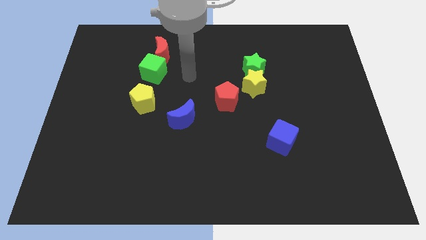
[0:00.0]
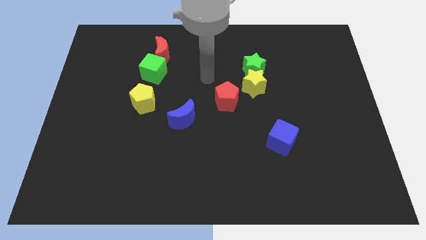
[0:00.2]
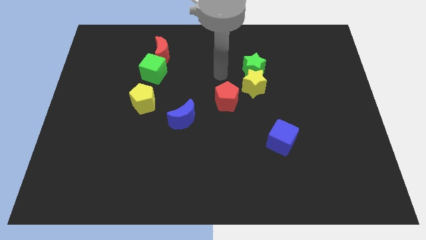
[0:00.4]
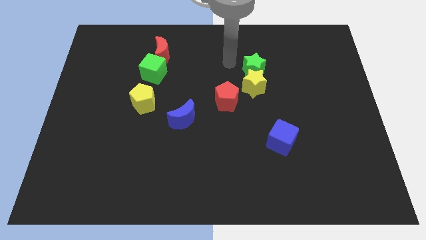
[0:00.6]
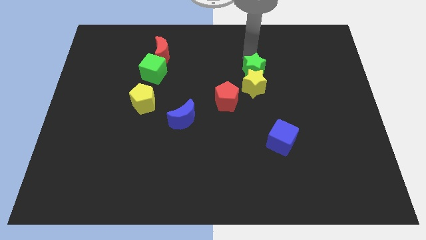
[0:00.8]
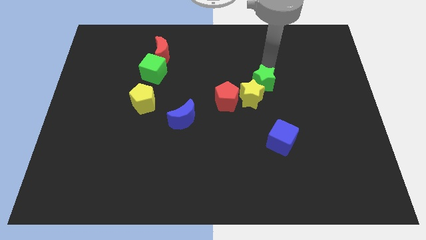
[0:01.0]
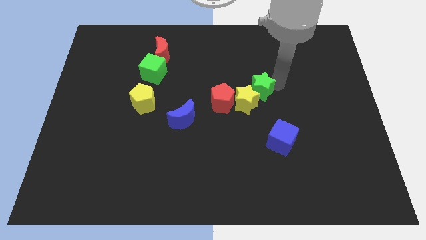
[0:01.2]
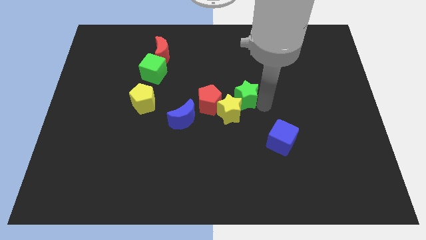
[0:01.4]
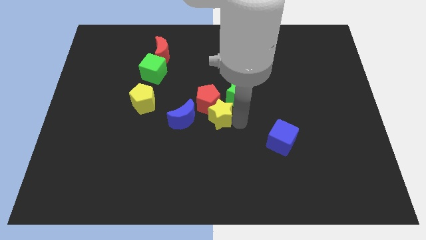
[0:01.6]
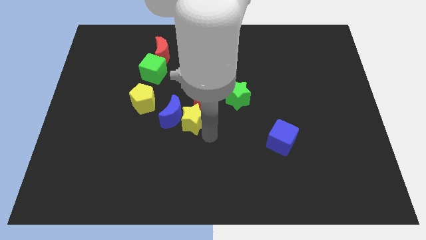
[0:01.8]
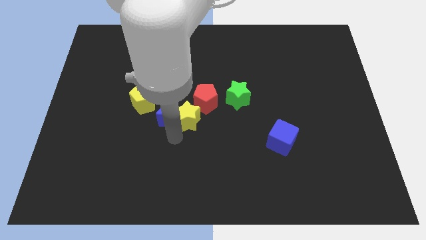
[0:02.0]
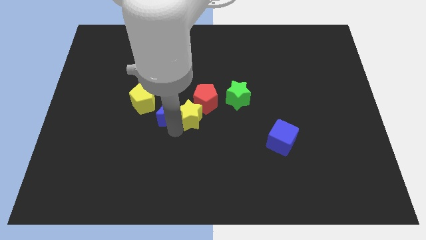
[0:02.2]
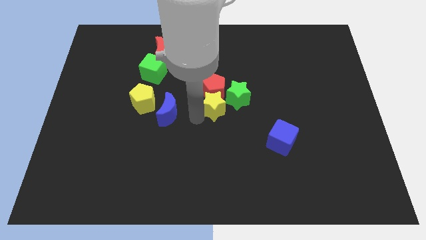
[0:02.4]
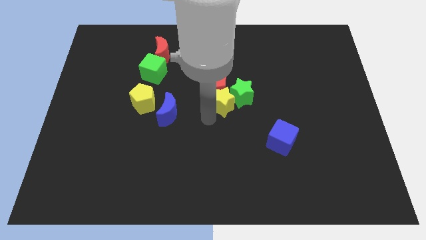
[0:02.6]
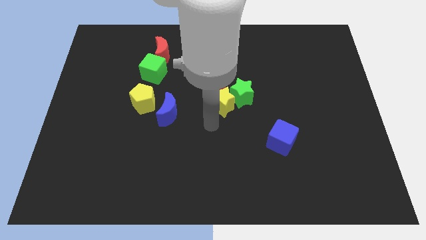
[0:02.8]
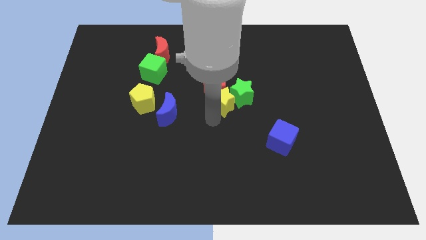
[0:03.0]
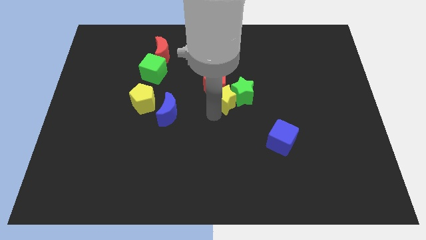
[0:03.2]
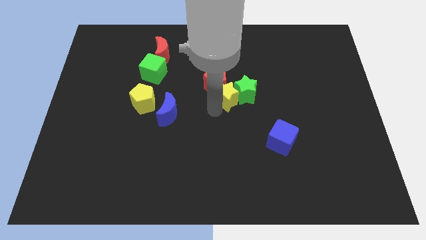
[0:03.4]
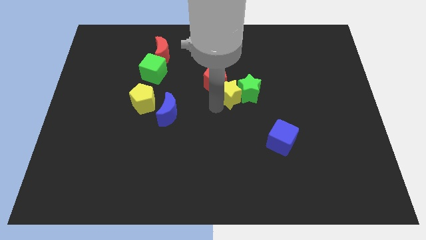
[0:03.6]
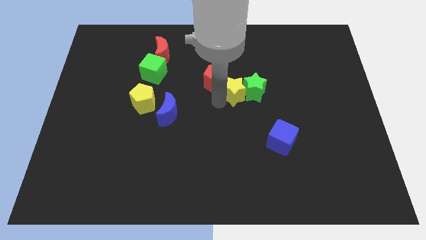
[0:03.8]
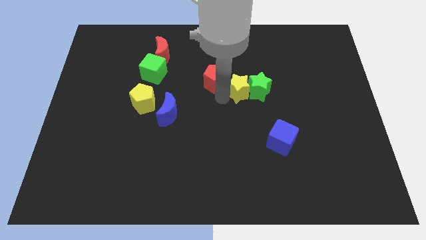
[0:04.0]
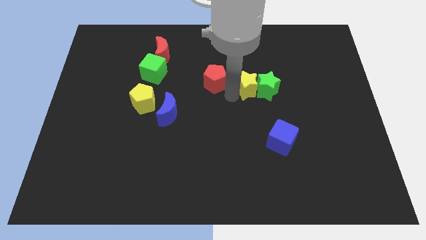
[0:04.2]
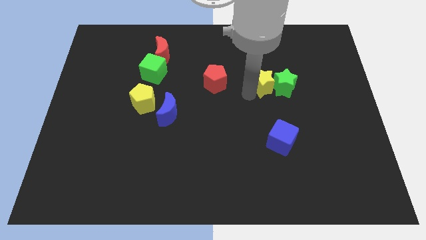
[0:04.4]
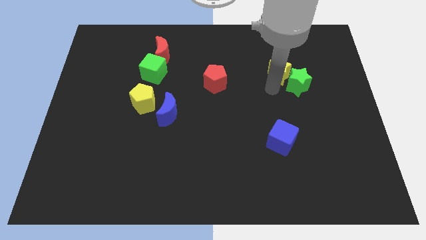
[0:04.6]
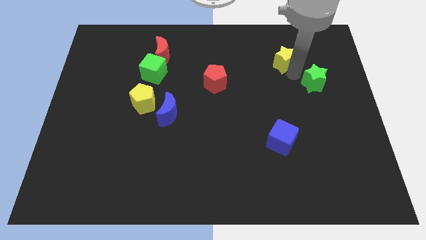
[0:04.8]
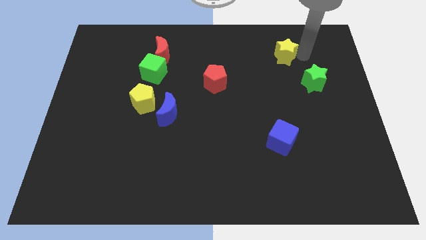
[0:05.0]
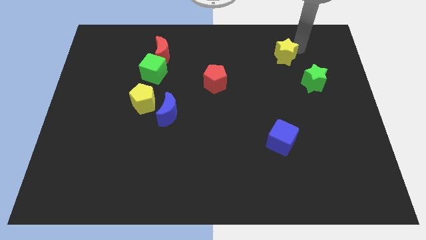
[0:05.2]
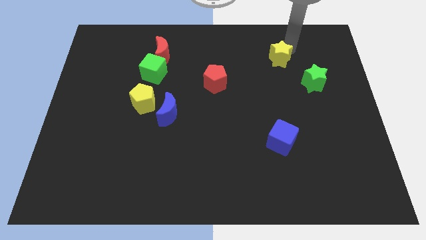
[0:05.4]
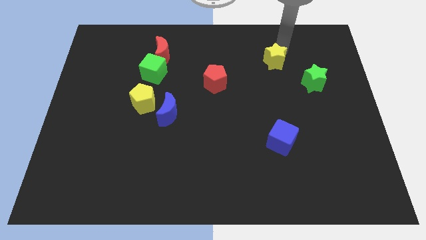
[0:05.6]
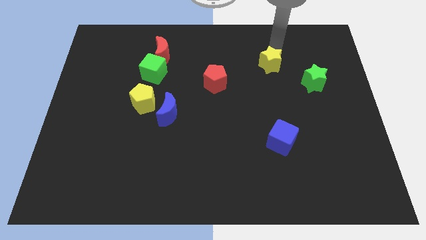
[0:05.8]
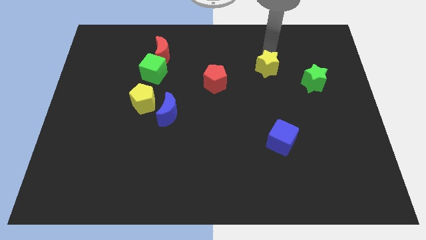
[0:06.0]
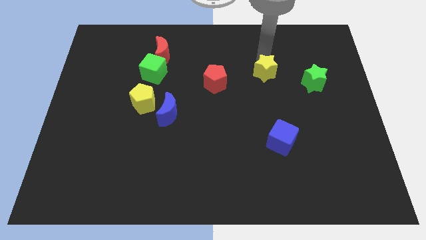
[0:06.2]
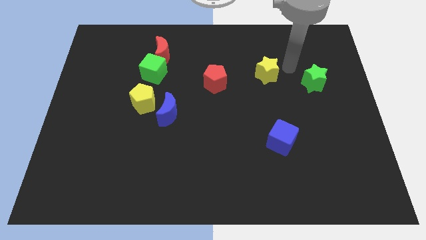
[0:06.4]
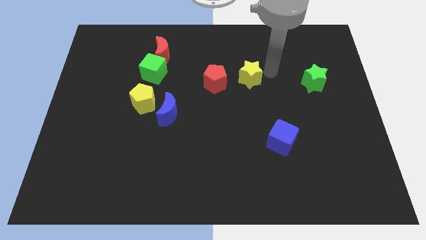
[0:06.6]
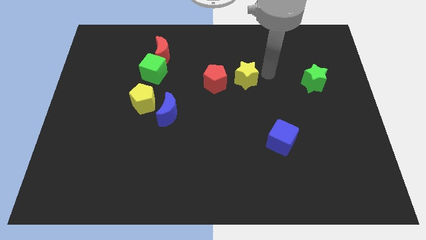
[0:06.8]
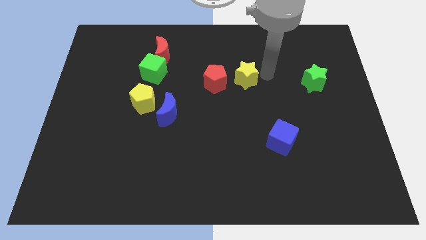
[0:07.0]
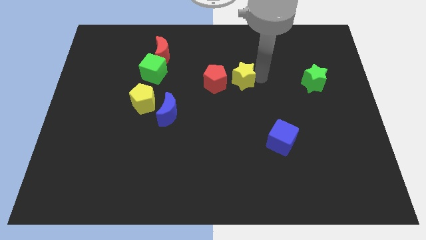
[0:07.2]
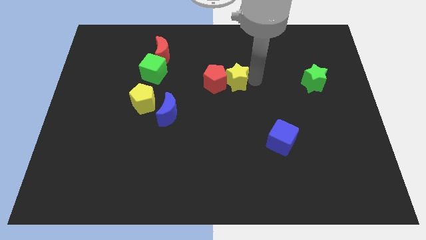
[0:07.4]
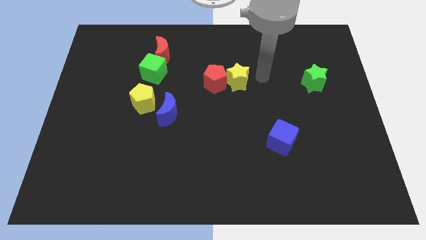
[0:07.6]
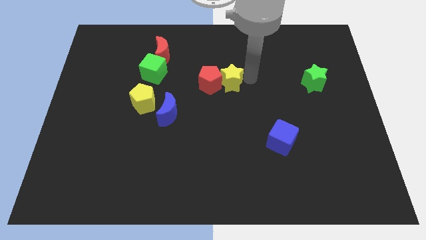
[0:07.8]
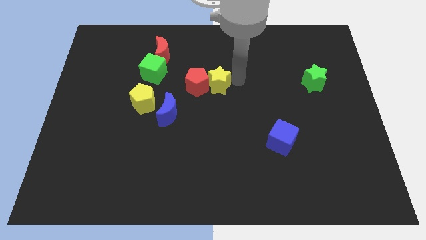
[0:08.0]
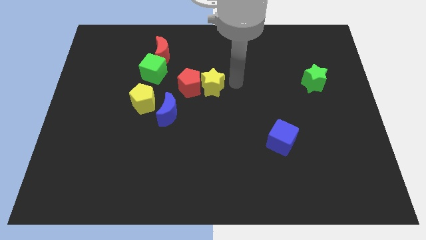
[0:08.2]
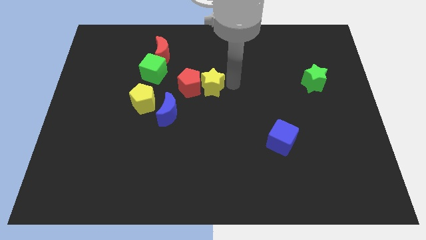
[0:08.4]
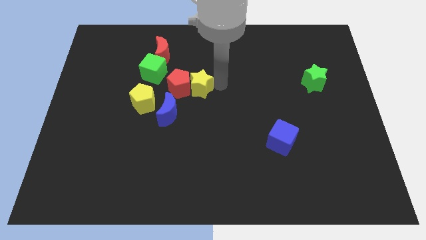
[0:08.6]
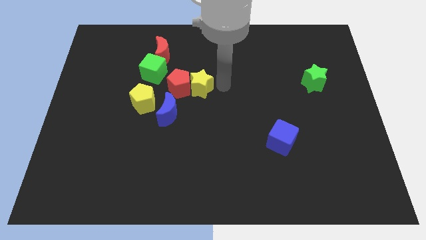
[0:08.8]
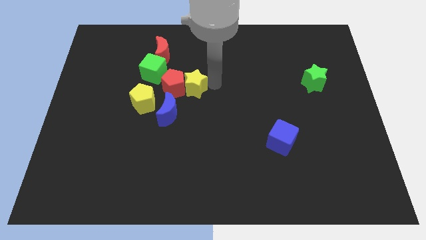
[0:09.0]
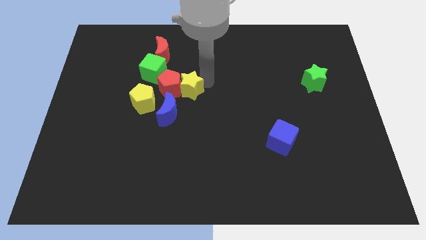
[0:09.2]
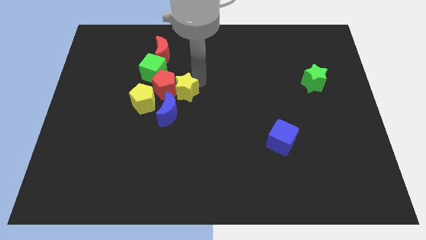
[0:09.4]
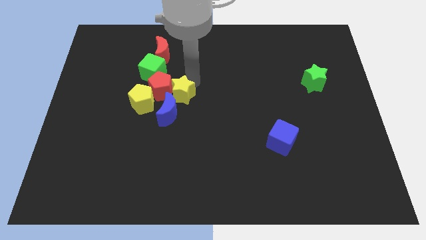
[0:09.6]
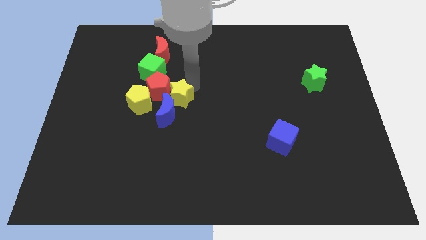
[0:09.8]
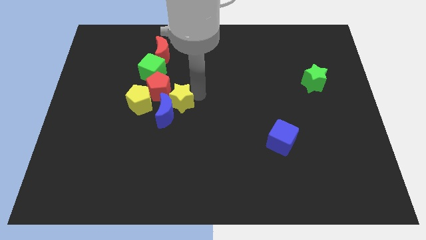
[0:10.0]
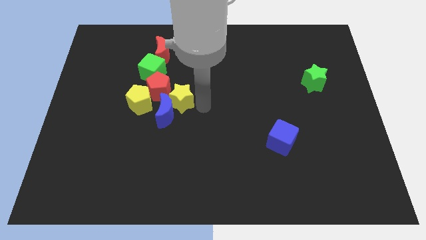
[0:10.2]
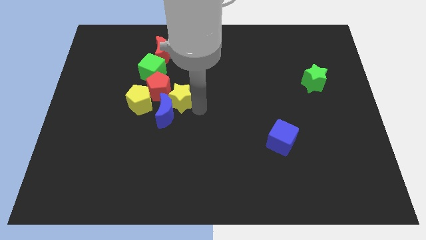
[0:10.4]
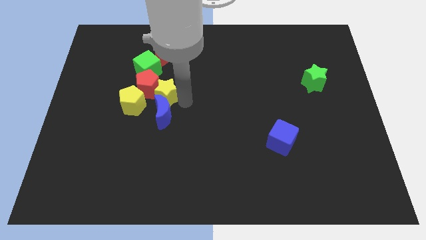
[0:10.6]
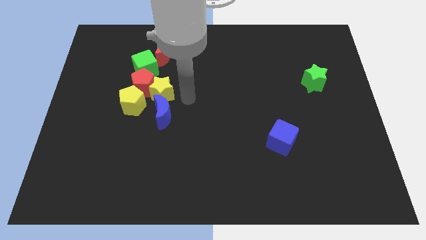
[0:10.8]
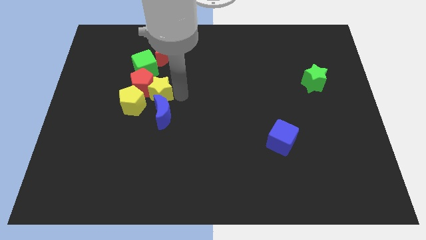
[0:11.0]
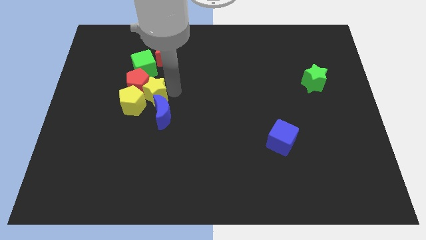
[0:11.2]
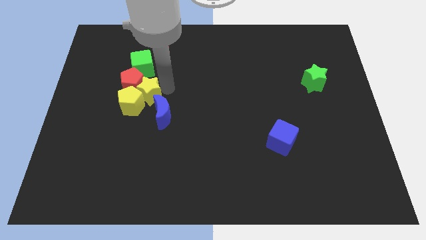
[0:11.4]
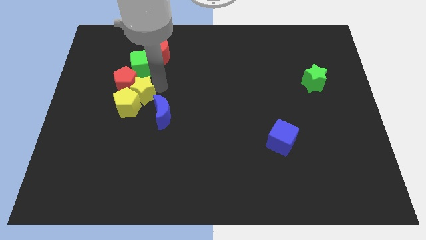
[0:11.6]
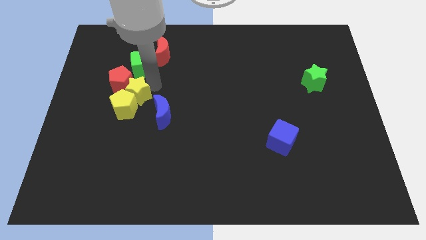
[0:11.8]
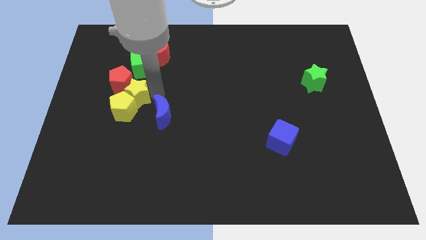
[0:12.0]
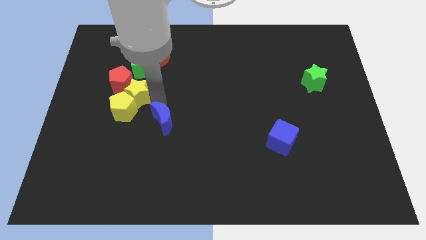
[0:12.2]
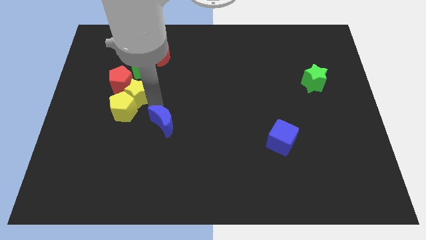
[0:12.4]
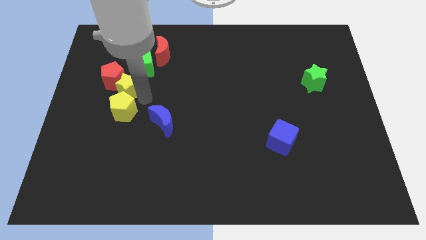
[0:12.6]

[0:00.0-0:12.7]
push the yellow star to the bottom left side of the green cube

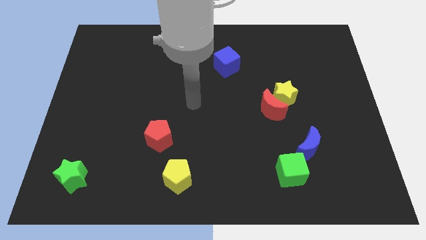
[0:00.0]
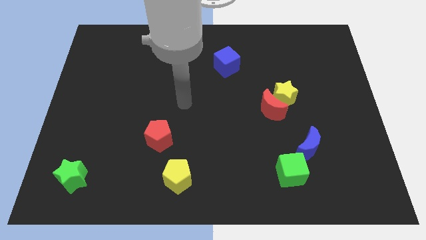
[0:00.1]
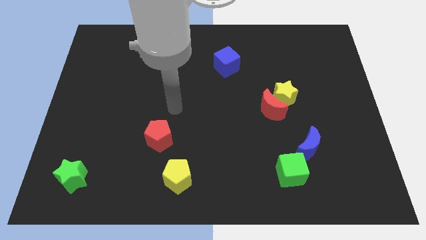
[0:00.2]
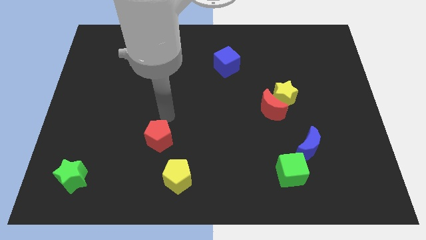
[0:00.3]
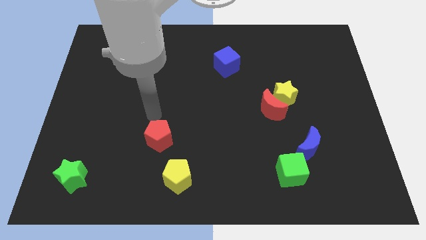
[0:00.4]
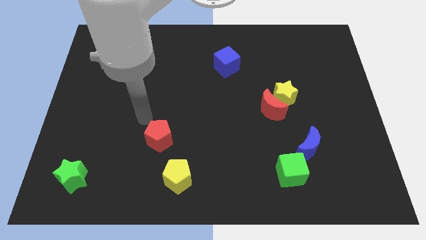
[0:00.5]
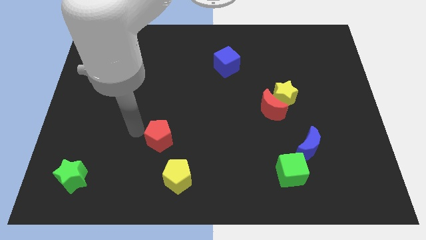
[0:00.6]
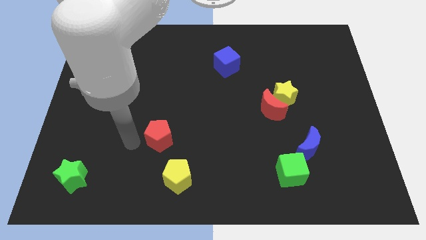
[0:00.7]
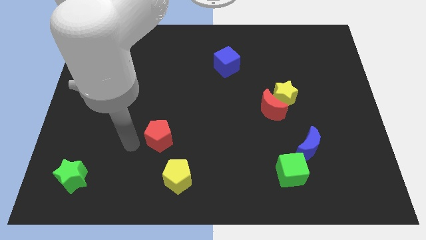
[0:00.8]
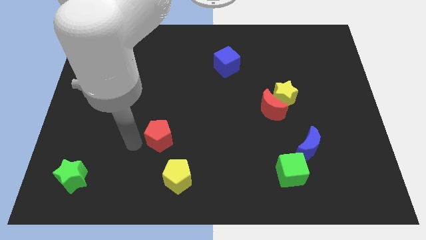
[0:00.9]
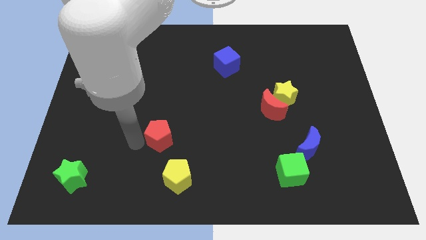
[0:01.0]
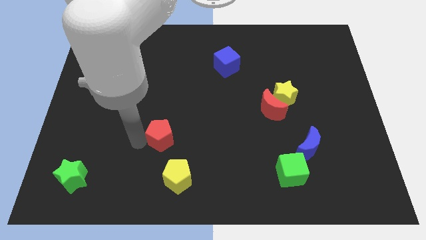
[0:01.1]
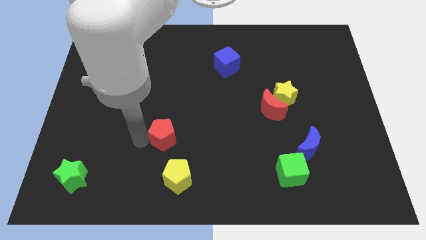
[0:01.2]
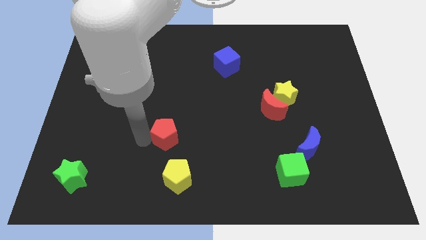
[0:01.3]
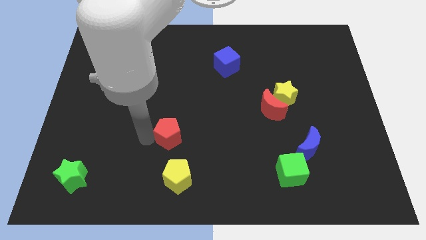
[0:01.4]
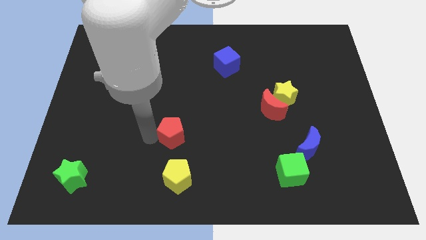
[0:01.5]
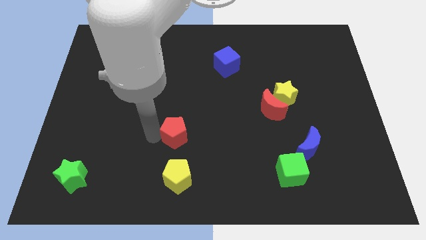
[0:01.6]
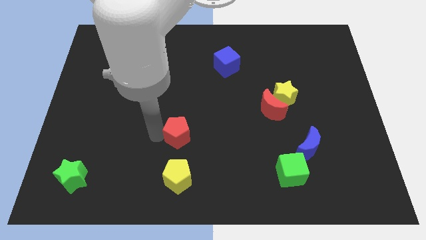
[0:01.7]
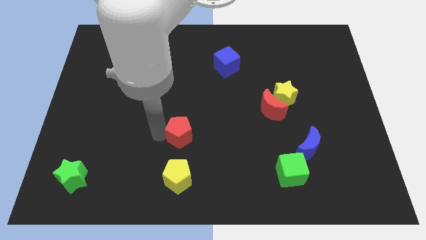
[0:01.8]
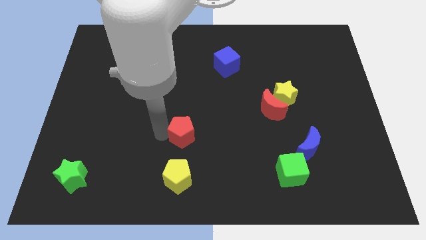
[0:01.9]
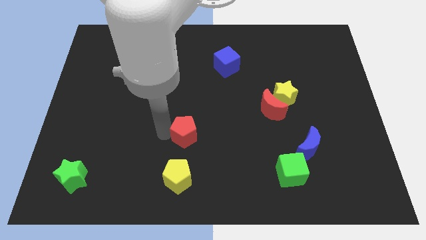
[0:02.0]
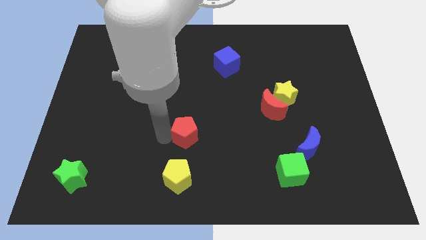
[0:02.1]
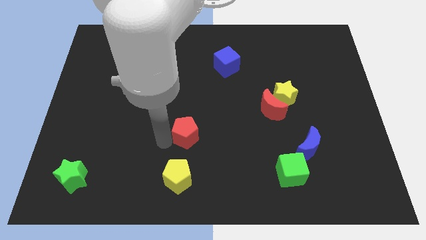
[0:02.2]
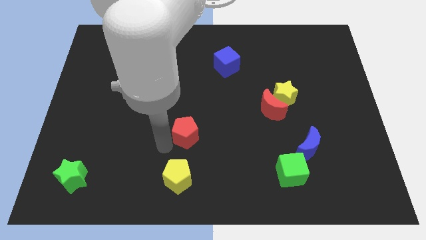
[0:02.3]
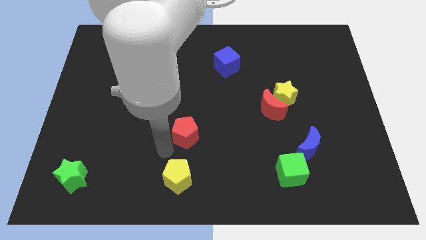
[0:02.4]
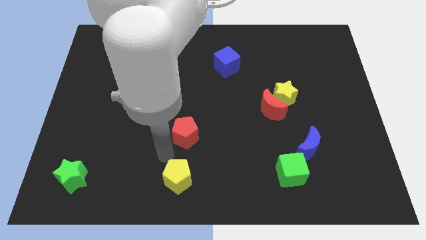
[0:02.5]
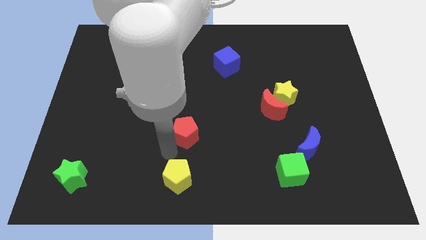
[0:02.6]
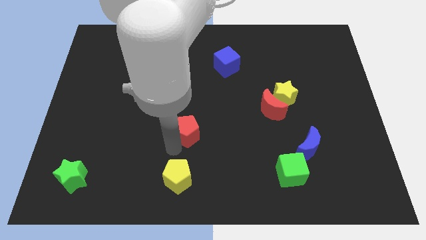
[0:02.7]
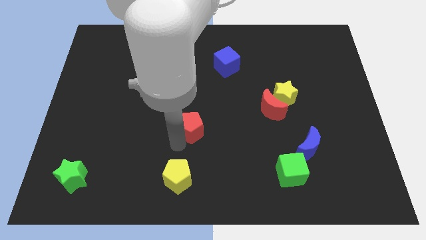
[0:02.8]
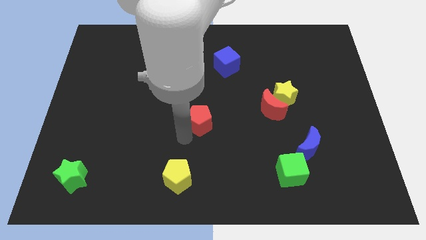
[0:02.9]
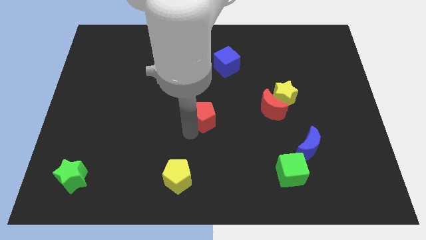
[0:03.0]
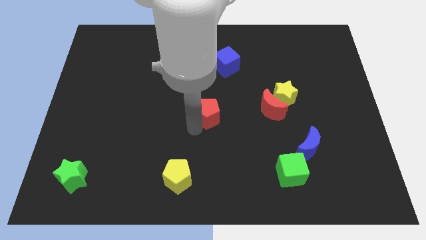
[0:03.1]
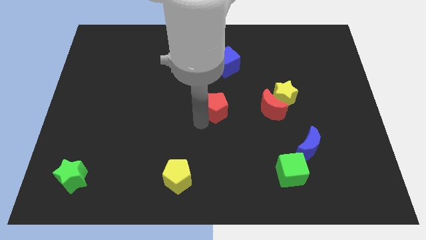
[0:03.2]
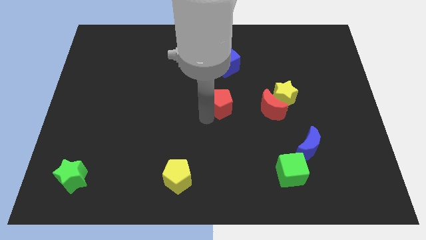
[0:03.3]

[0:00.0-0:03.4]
move the red pentagon to the left side of the yellow star
